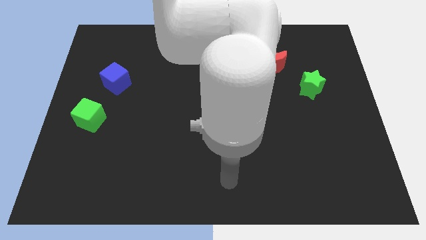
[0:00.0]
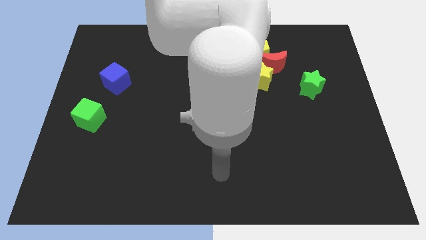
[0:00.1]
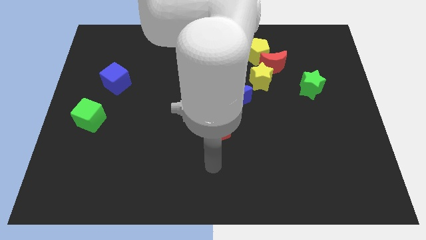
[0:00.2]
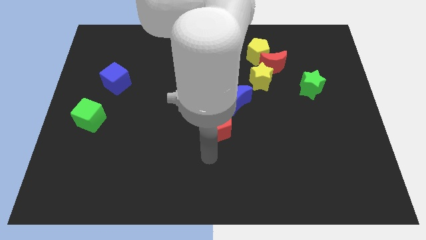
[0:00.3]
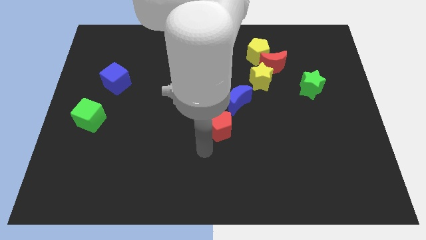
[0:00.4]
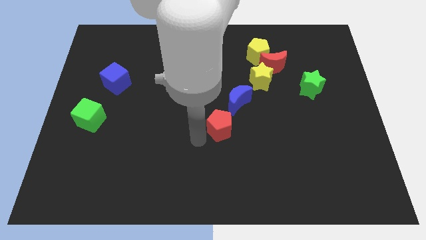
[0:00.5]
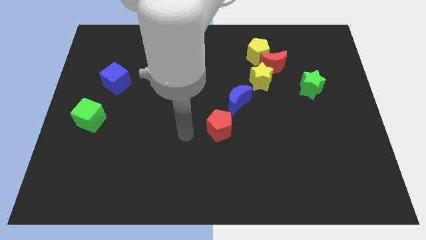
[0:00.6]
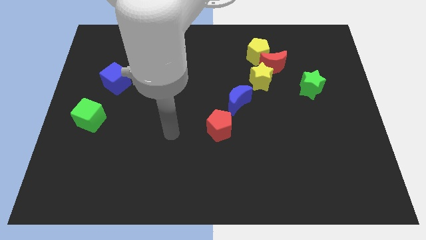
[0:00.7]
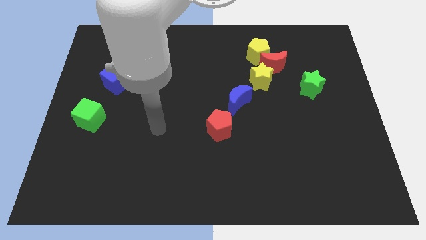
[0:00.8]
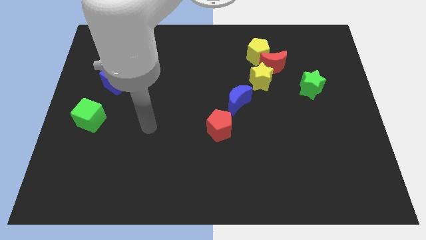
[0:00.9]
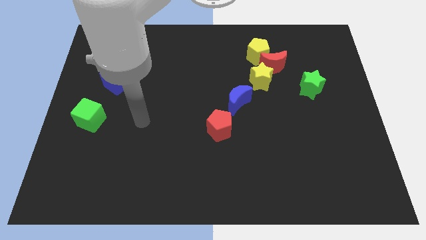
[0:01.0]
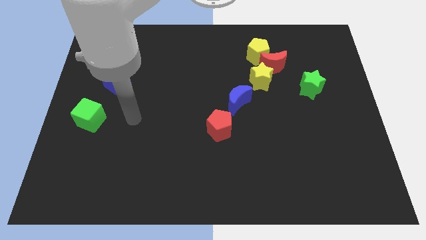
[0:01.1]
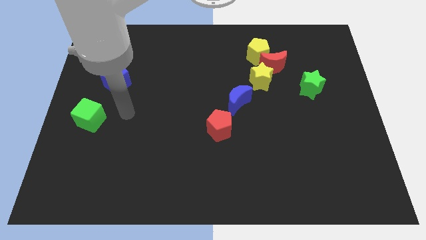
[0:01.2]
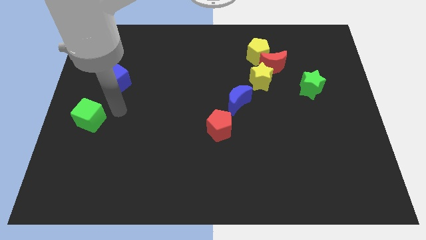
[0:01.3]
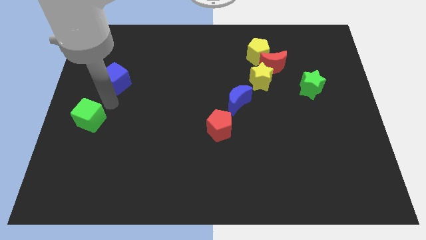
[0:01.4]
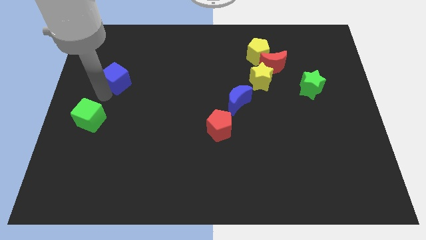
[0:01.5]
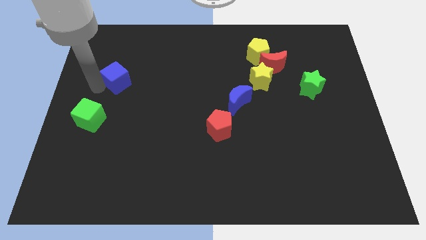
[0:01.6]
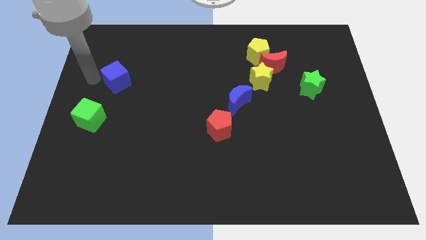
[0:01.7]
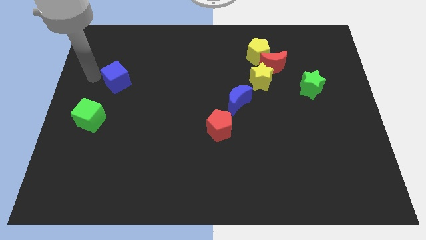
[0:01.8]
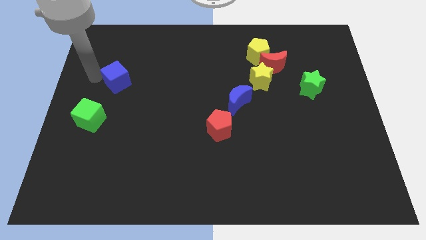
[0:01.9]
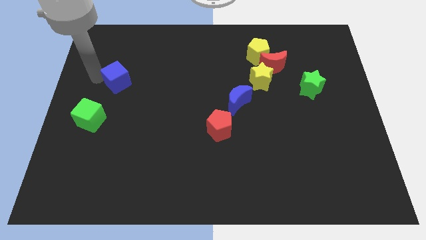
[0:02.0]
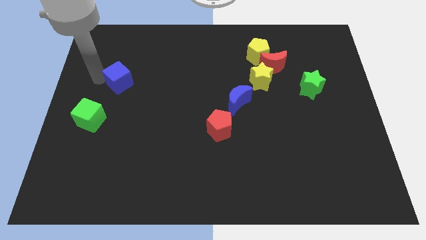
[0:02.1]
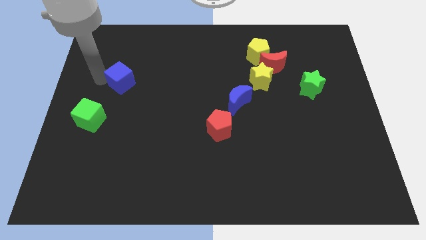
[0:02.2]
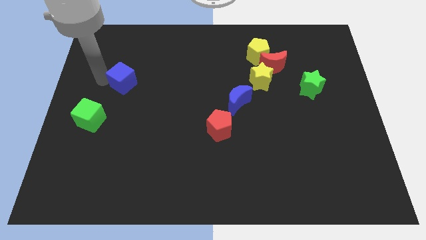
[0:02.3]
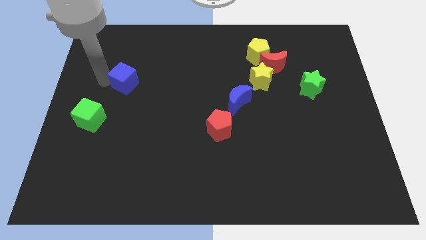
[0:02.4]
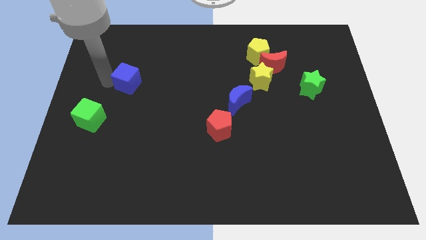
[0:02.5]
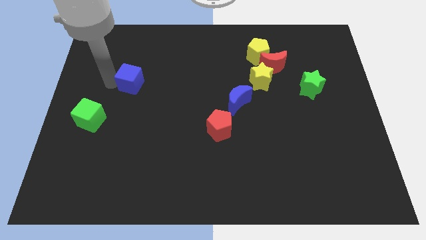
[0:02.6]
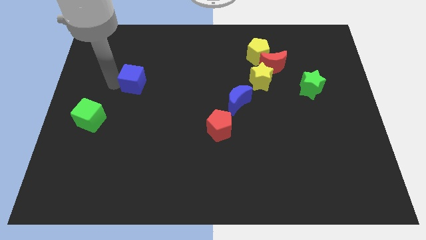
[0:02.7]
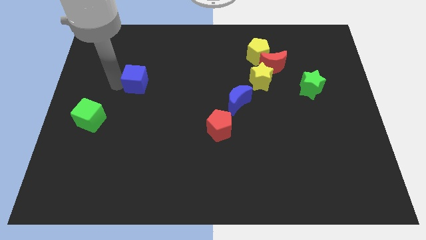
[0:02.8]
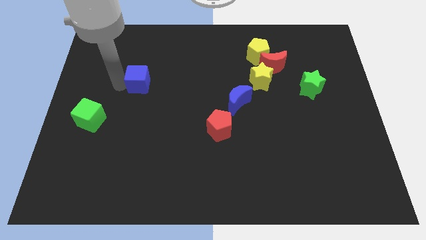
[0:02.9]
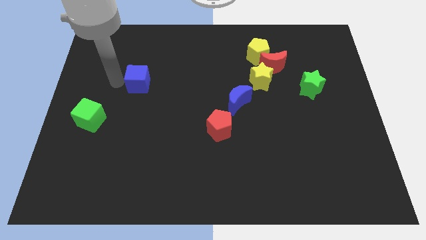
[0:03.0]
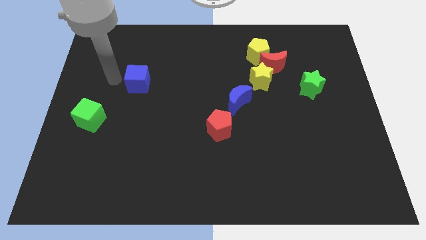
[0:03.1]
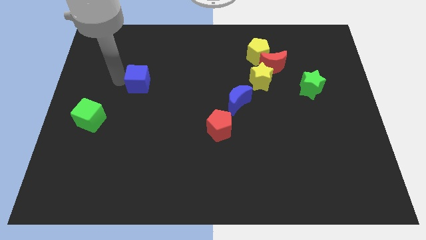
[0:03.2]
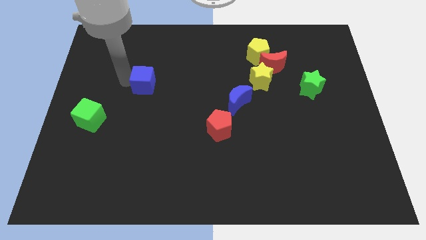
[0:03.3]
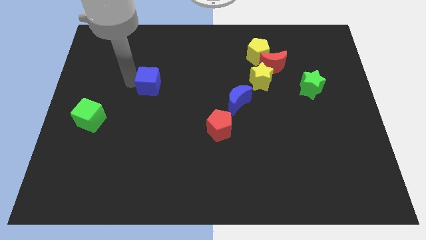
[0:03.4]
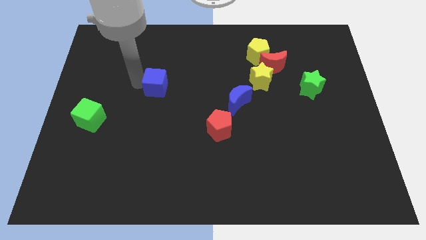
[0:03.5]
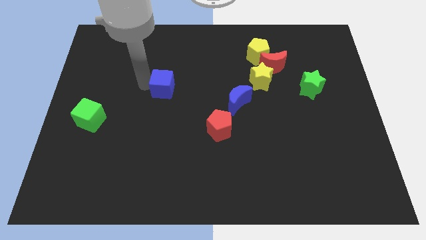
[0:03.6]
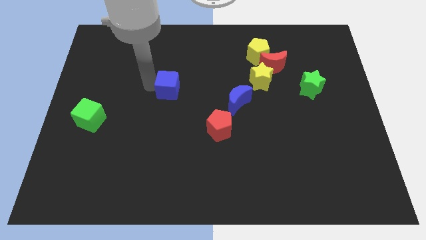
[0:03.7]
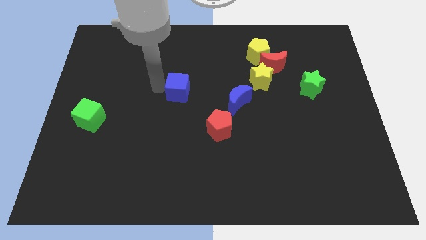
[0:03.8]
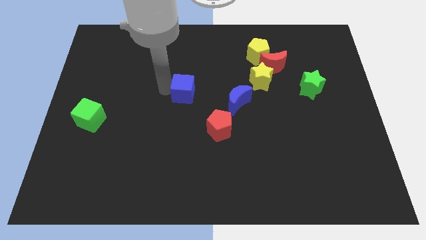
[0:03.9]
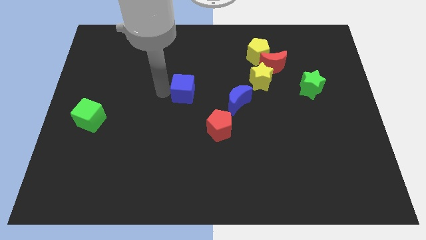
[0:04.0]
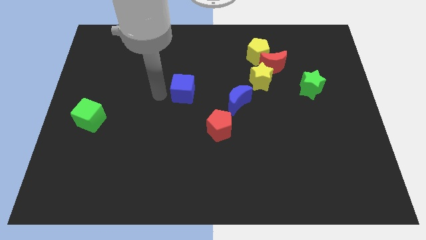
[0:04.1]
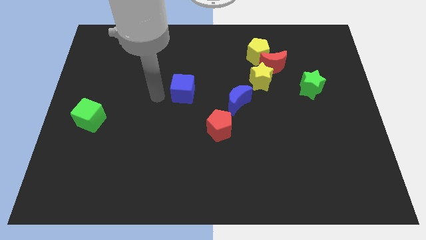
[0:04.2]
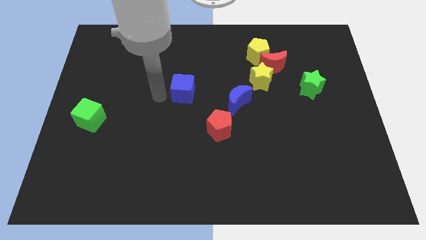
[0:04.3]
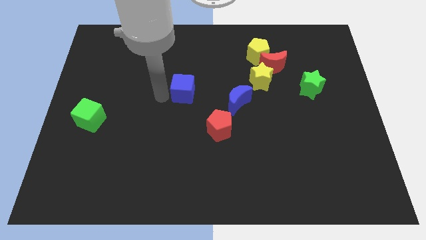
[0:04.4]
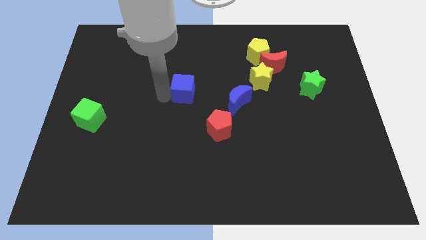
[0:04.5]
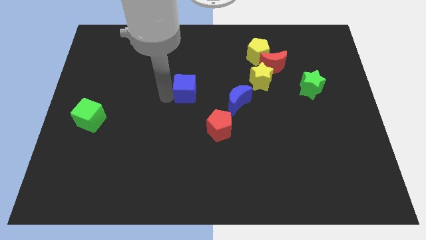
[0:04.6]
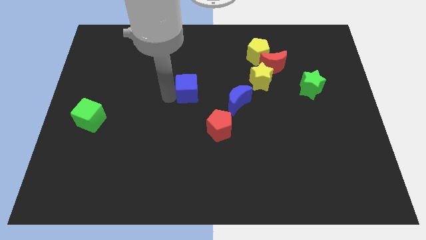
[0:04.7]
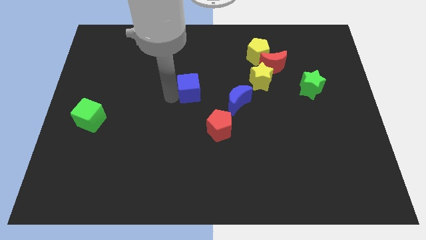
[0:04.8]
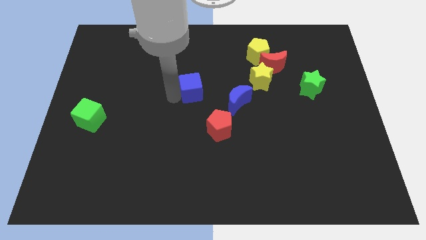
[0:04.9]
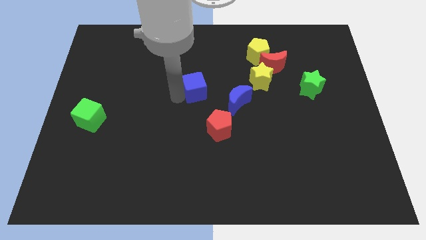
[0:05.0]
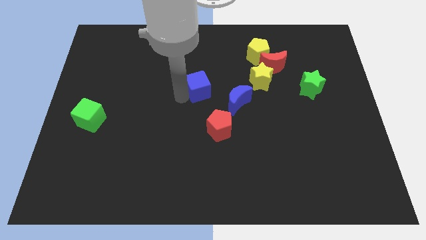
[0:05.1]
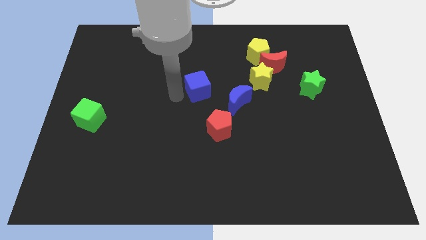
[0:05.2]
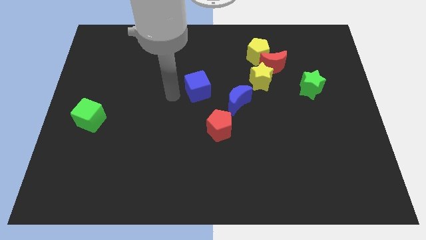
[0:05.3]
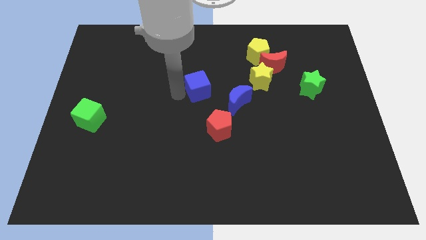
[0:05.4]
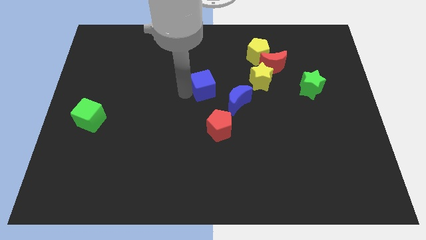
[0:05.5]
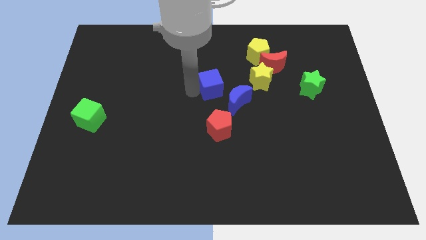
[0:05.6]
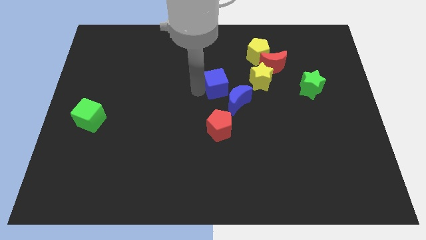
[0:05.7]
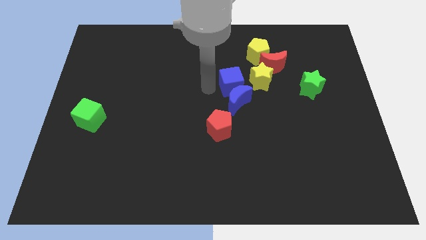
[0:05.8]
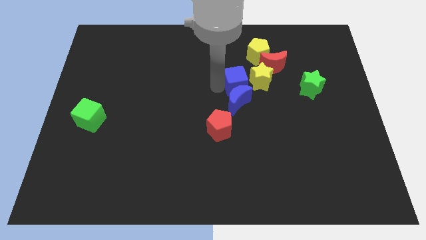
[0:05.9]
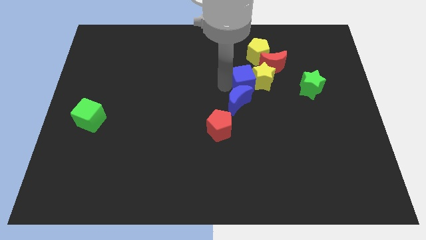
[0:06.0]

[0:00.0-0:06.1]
move the blue cube towards the yellow star

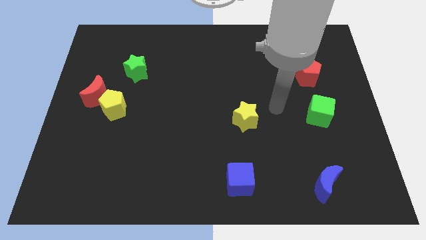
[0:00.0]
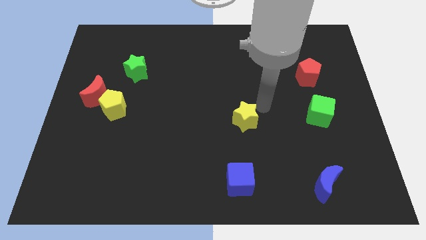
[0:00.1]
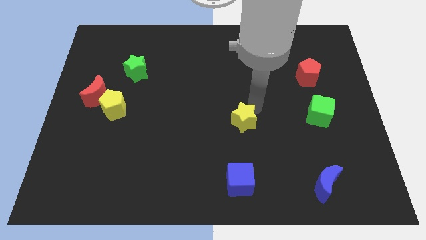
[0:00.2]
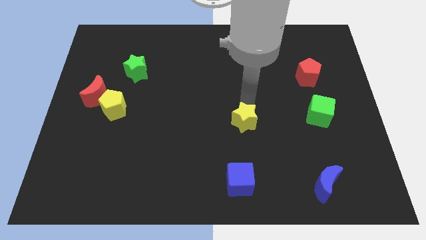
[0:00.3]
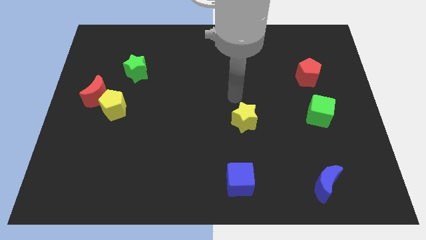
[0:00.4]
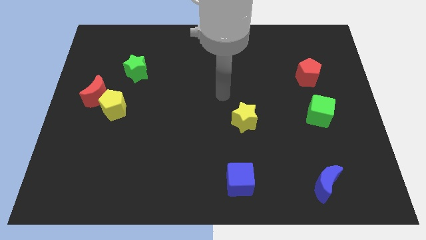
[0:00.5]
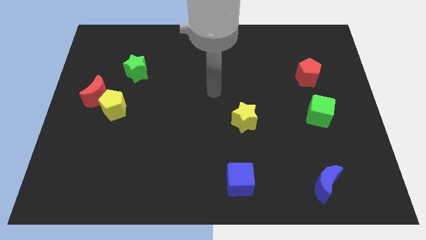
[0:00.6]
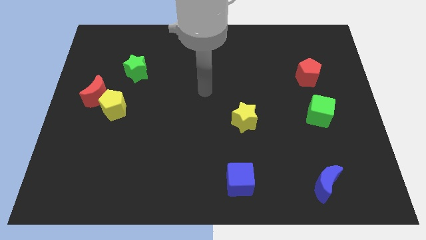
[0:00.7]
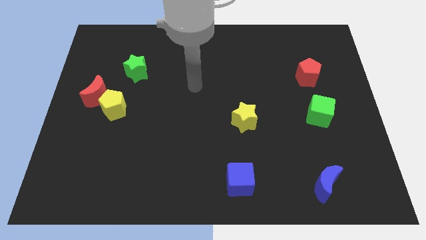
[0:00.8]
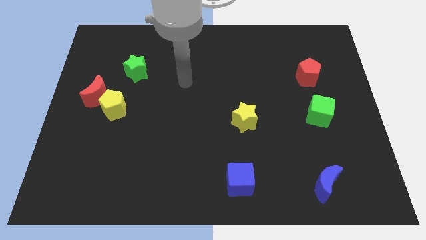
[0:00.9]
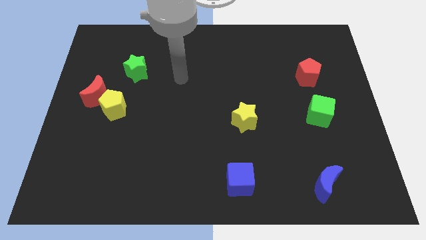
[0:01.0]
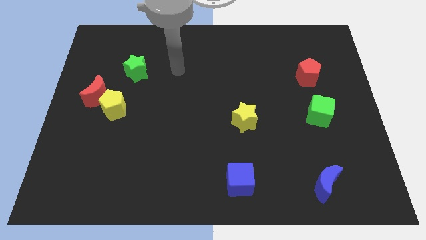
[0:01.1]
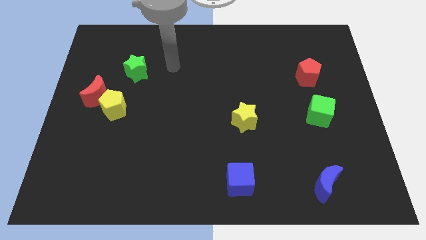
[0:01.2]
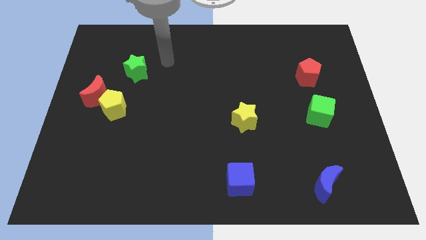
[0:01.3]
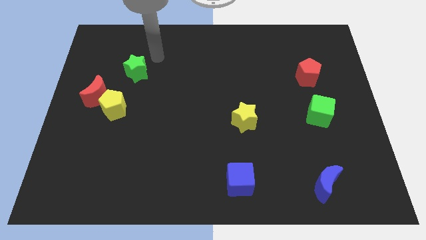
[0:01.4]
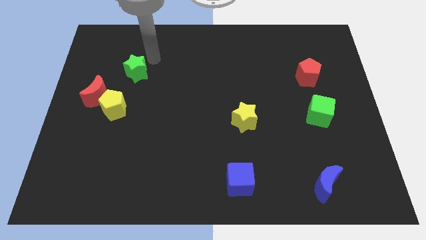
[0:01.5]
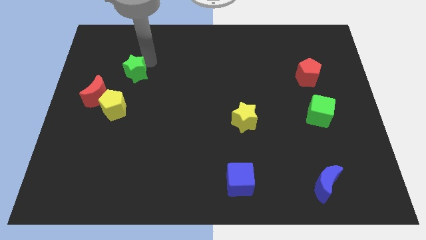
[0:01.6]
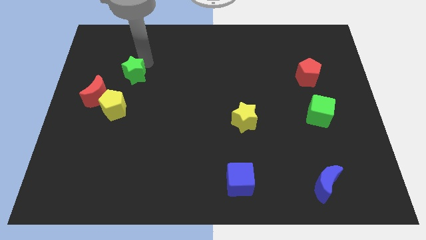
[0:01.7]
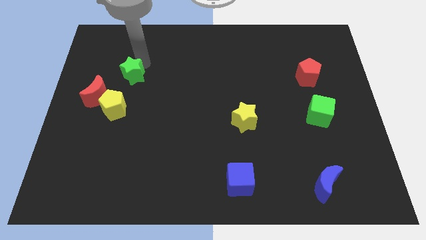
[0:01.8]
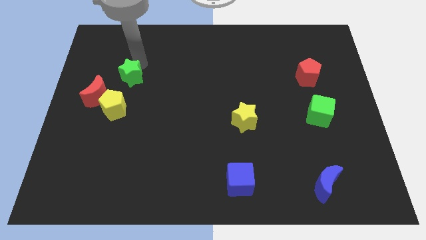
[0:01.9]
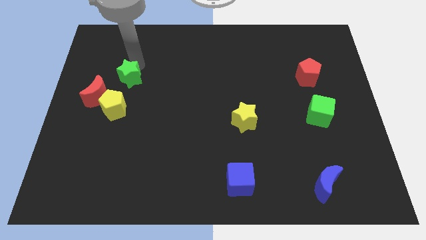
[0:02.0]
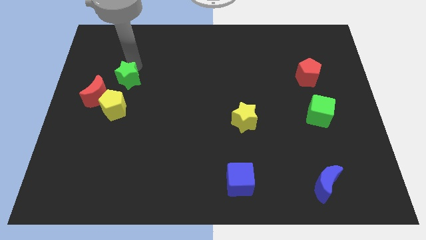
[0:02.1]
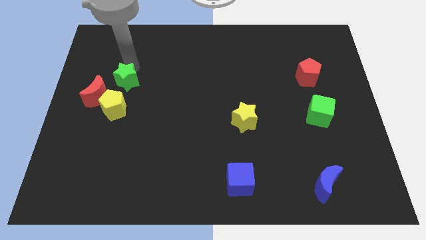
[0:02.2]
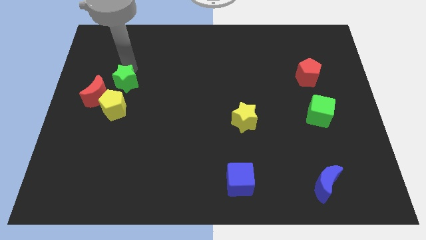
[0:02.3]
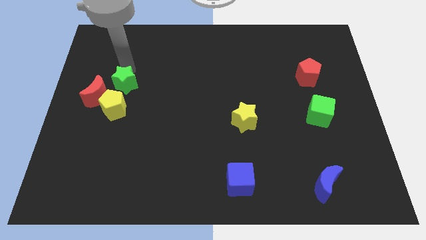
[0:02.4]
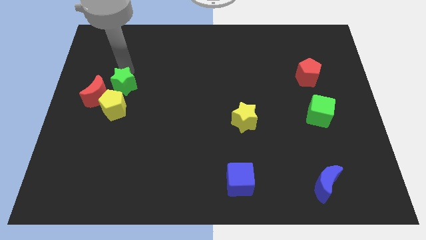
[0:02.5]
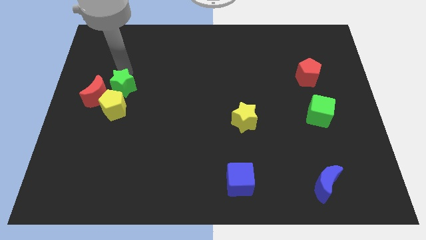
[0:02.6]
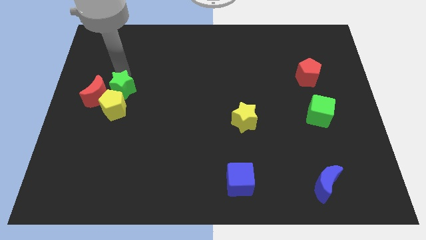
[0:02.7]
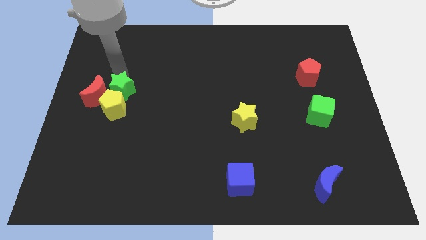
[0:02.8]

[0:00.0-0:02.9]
move the green star to the yellow pentagon
